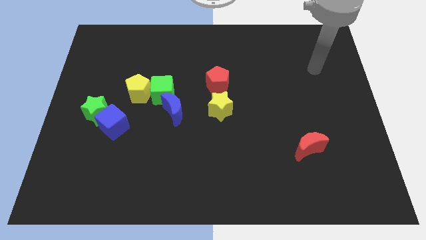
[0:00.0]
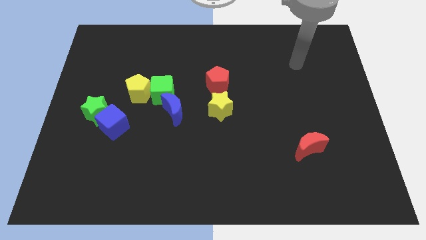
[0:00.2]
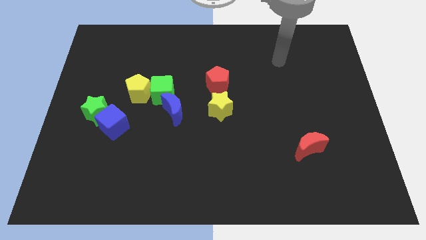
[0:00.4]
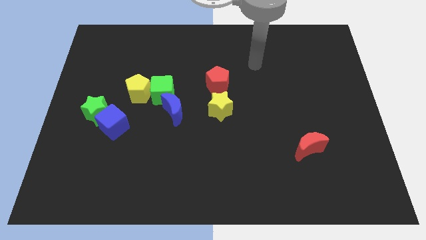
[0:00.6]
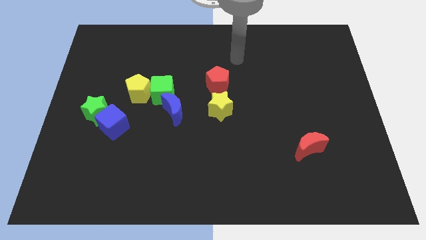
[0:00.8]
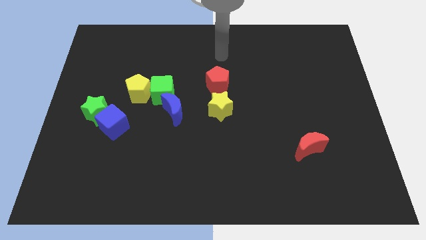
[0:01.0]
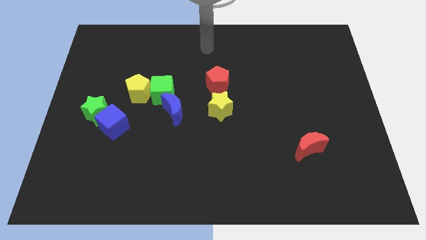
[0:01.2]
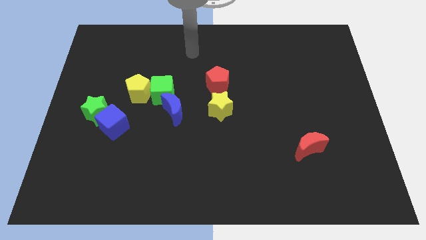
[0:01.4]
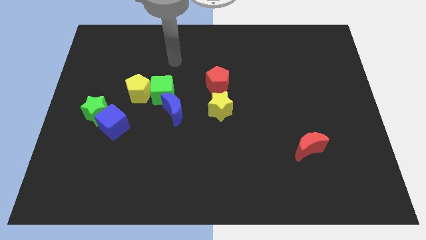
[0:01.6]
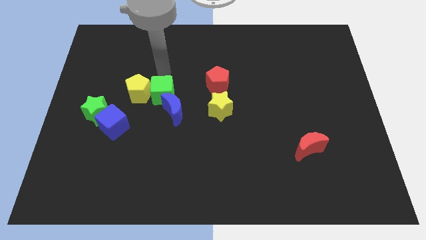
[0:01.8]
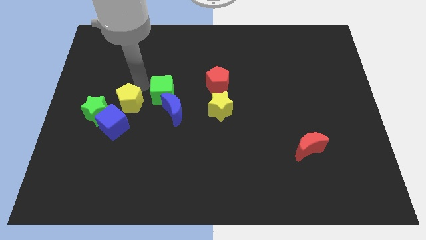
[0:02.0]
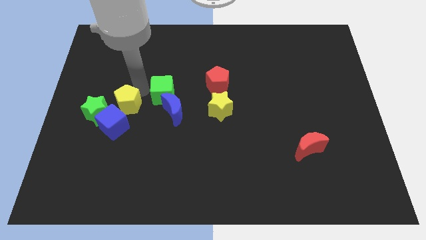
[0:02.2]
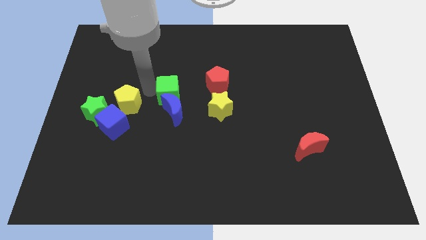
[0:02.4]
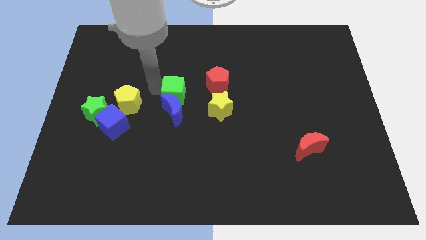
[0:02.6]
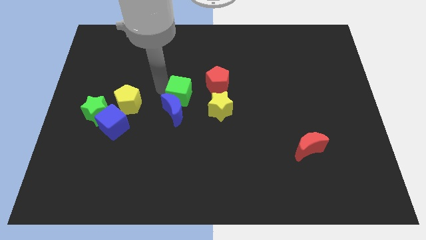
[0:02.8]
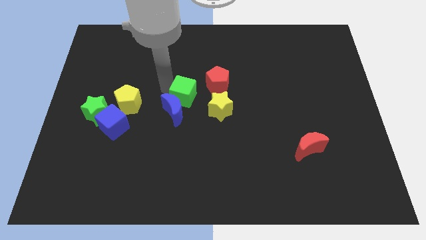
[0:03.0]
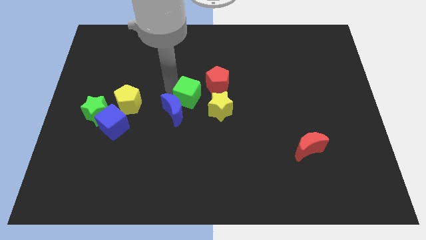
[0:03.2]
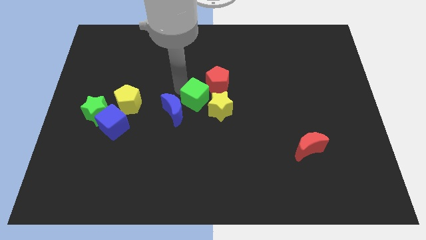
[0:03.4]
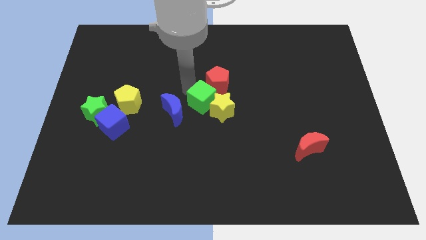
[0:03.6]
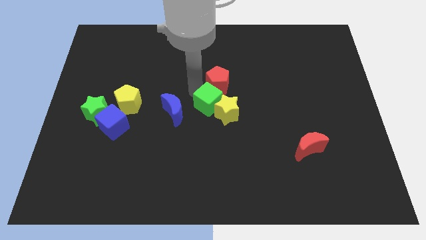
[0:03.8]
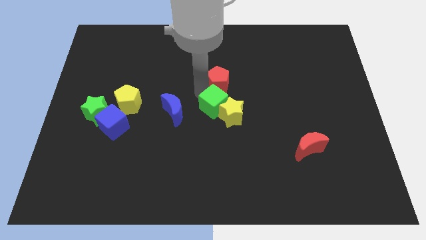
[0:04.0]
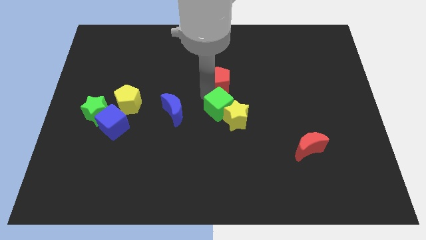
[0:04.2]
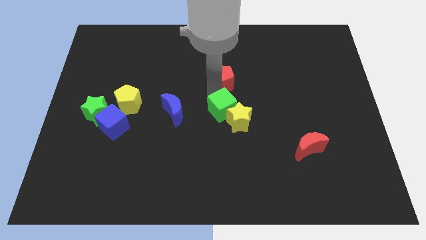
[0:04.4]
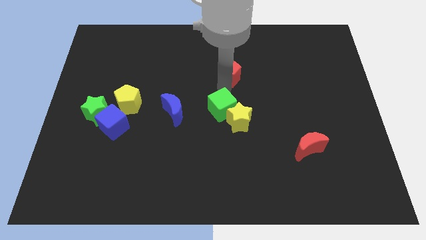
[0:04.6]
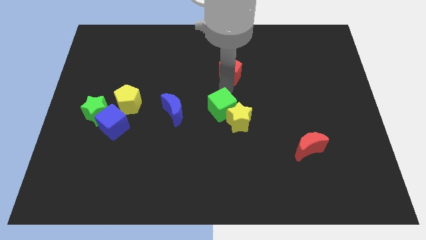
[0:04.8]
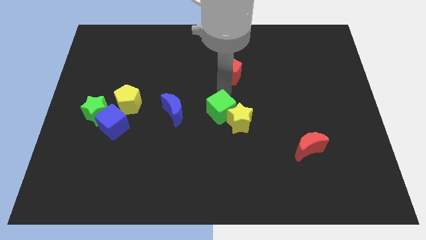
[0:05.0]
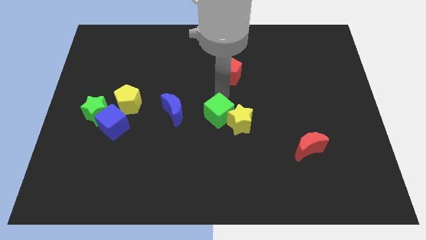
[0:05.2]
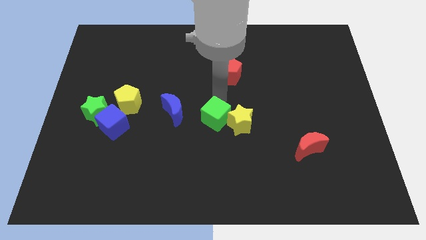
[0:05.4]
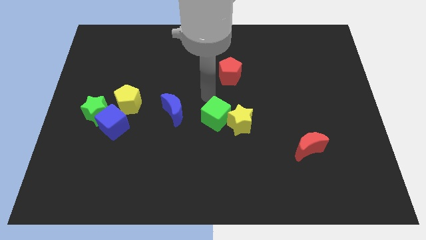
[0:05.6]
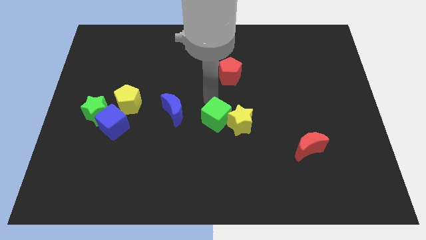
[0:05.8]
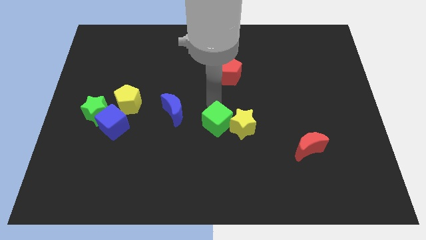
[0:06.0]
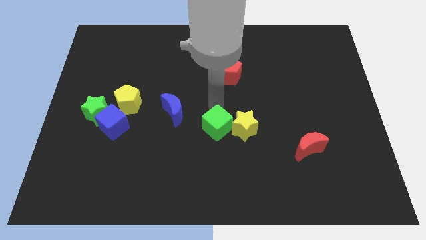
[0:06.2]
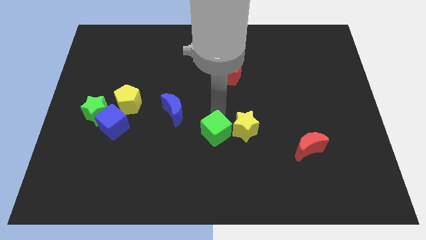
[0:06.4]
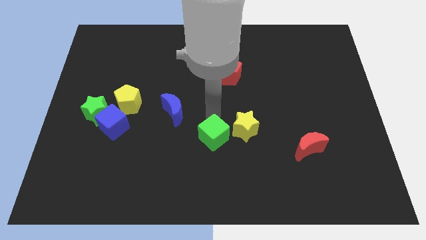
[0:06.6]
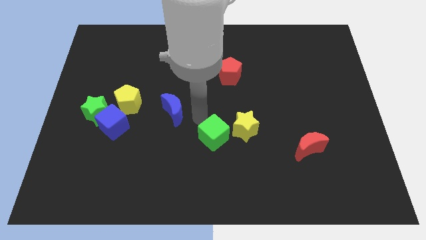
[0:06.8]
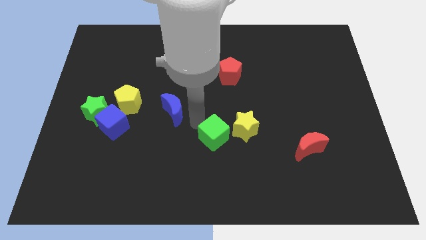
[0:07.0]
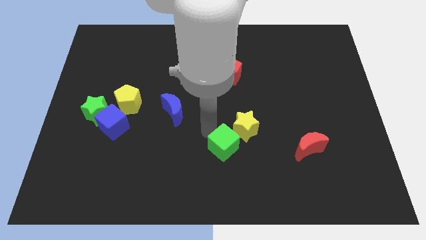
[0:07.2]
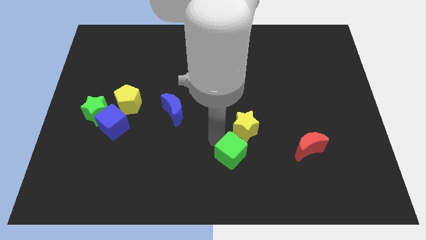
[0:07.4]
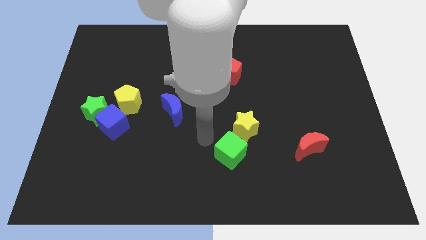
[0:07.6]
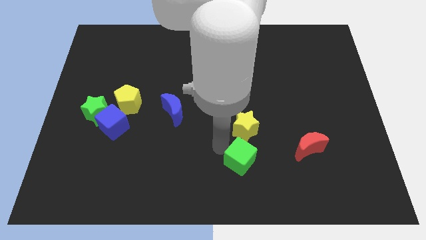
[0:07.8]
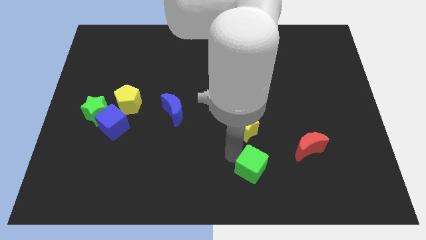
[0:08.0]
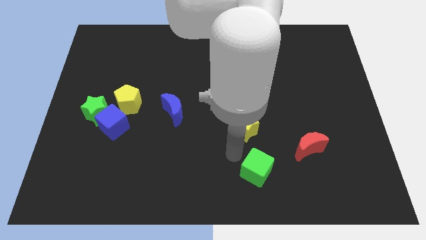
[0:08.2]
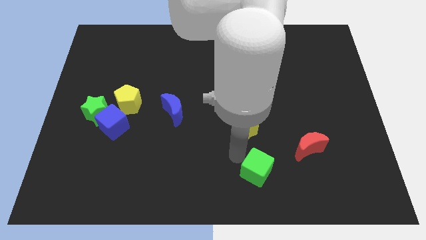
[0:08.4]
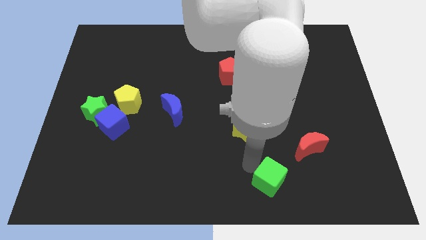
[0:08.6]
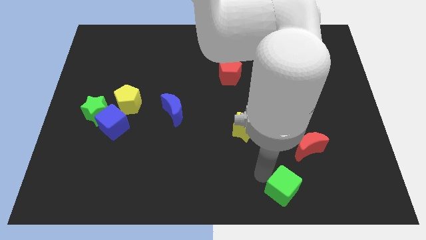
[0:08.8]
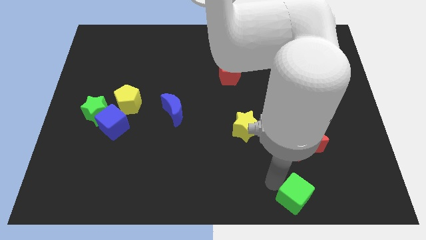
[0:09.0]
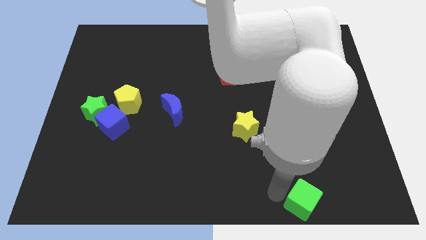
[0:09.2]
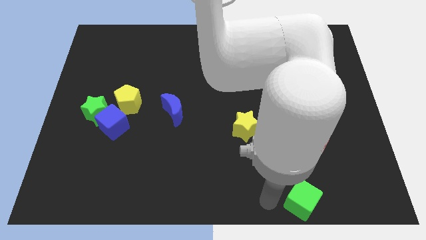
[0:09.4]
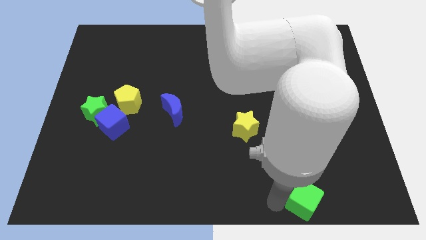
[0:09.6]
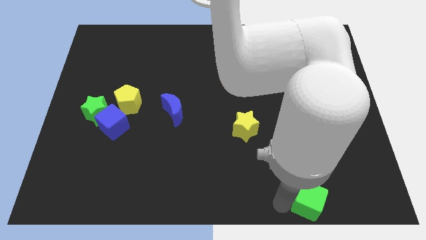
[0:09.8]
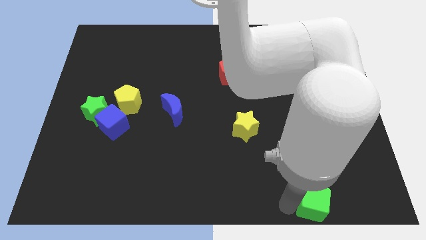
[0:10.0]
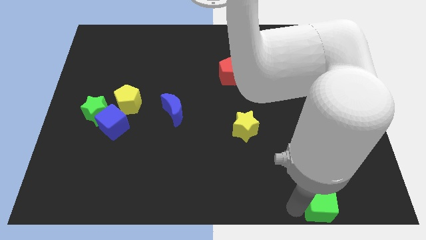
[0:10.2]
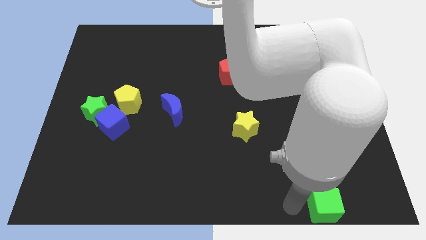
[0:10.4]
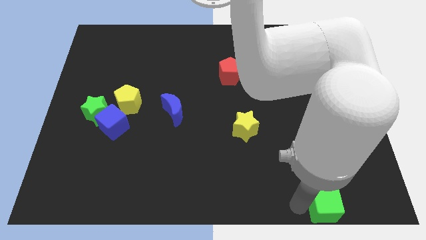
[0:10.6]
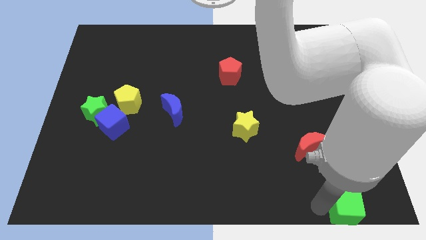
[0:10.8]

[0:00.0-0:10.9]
slide the green cube to the bottom right

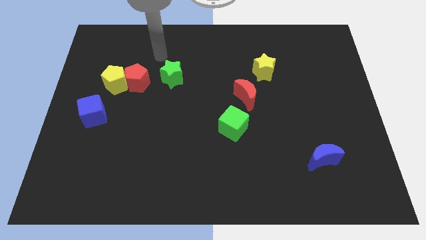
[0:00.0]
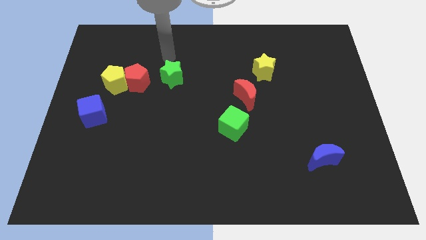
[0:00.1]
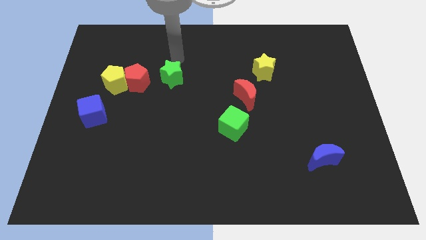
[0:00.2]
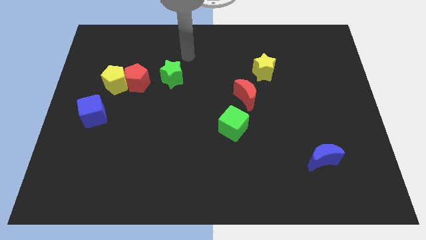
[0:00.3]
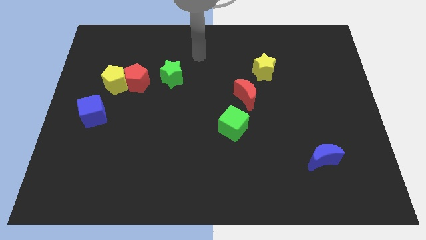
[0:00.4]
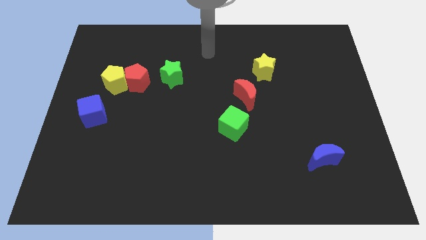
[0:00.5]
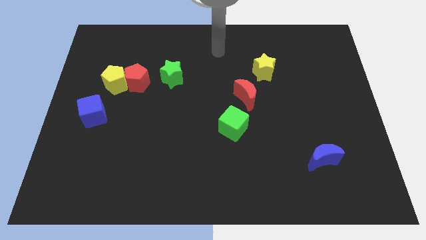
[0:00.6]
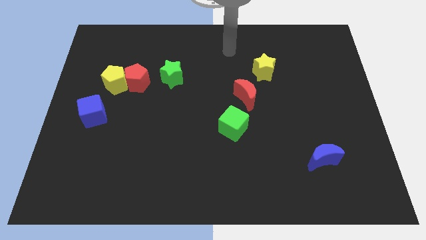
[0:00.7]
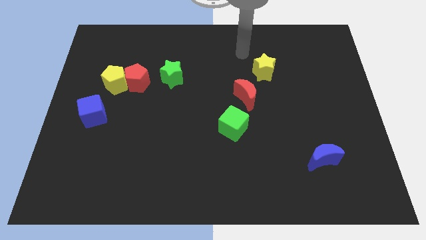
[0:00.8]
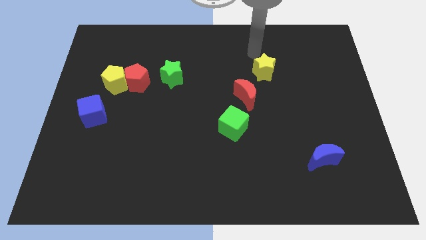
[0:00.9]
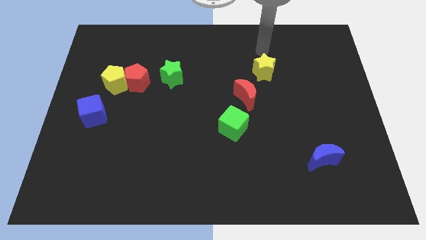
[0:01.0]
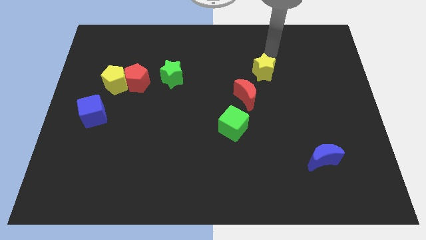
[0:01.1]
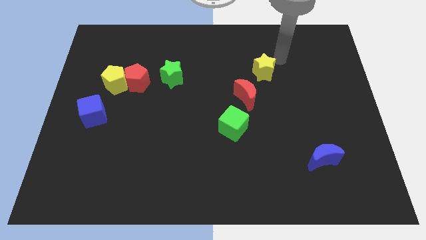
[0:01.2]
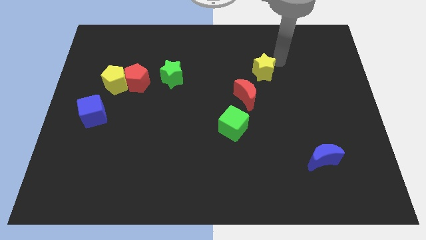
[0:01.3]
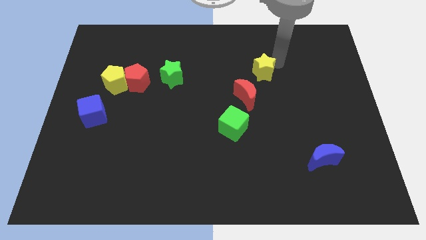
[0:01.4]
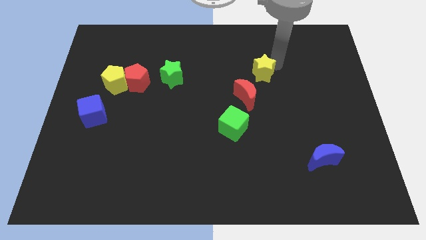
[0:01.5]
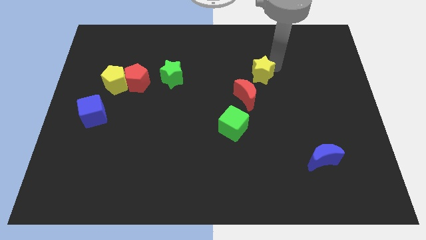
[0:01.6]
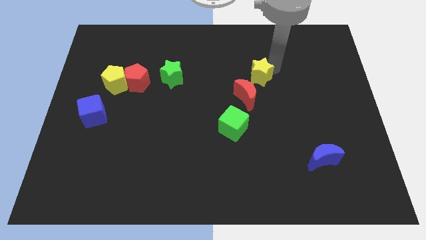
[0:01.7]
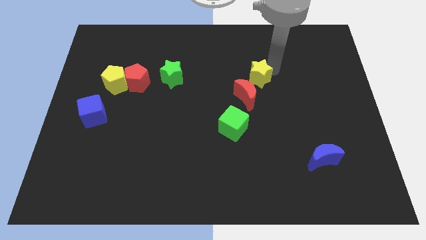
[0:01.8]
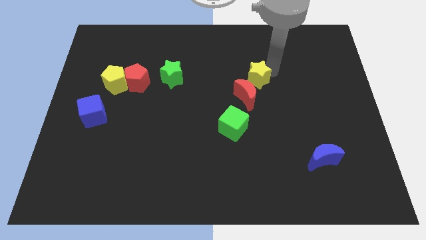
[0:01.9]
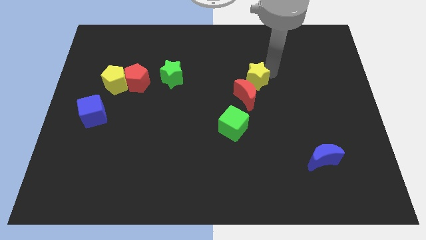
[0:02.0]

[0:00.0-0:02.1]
slide the yellow star to the middle of the board
